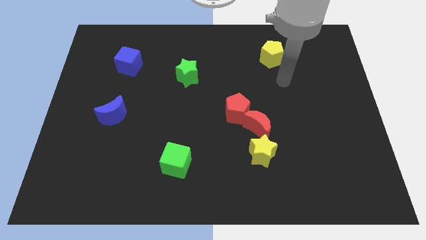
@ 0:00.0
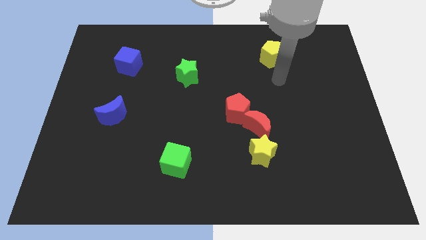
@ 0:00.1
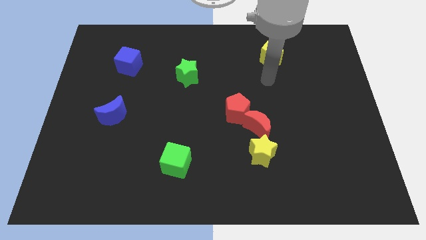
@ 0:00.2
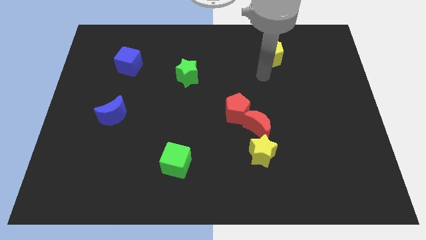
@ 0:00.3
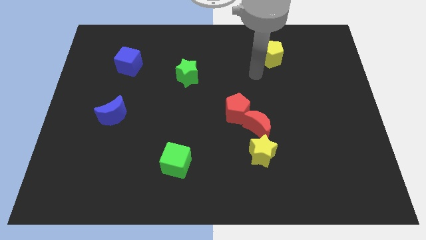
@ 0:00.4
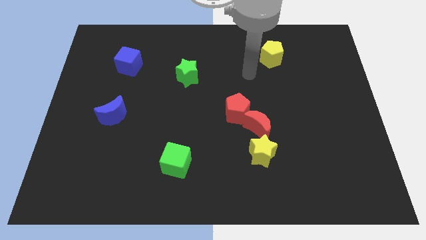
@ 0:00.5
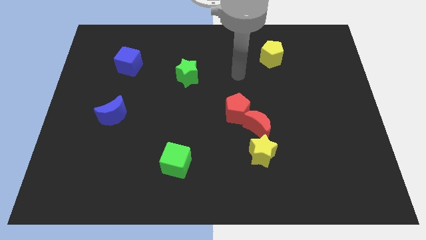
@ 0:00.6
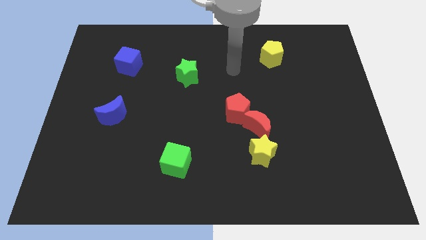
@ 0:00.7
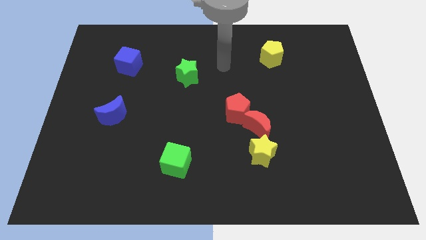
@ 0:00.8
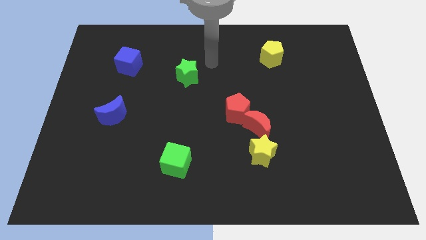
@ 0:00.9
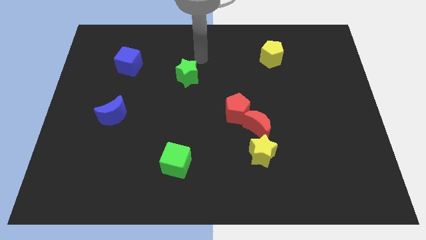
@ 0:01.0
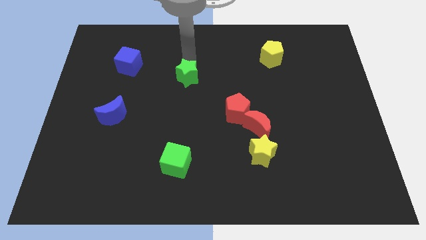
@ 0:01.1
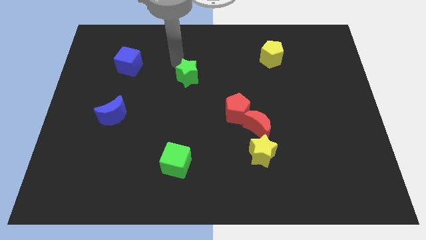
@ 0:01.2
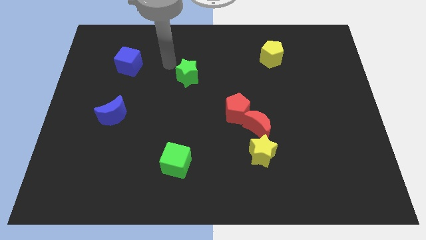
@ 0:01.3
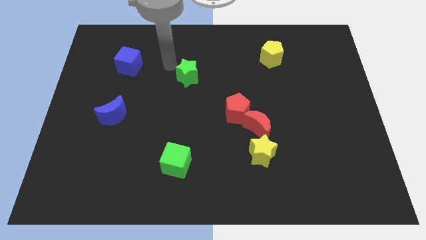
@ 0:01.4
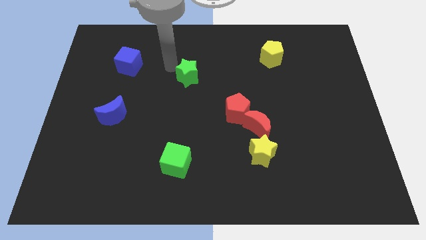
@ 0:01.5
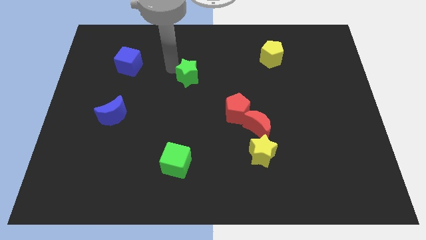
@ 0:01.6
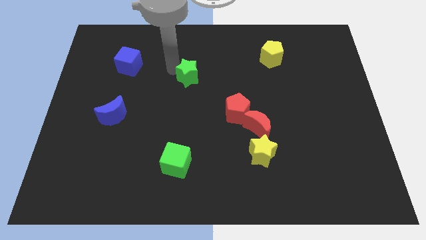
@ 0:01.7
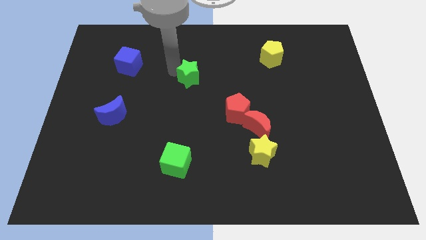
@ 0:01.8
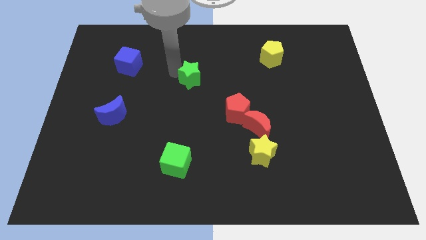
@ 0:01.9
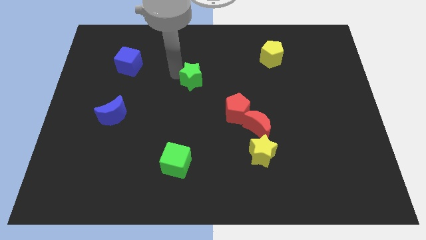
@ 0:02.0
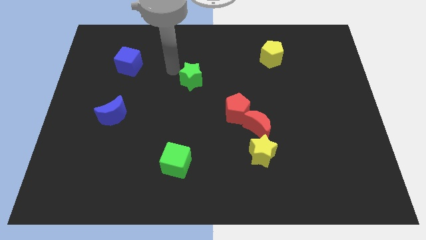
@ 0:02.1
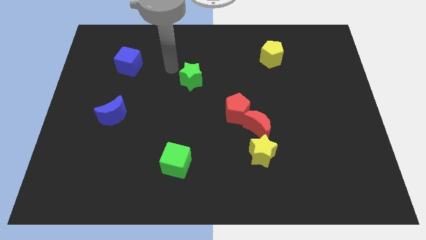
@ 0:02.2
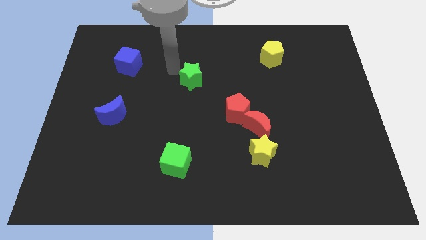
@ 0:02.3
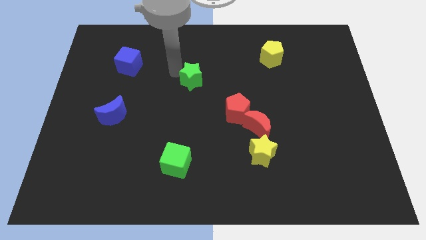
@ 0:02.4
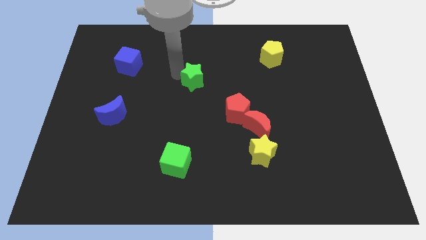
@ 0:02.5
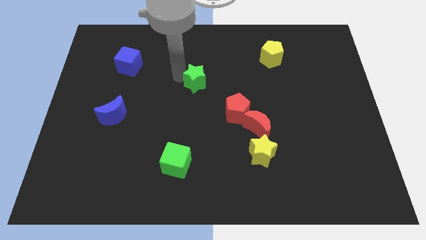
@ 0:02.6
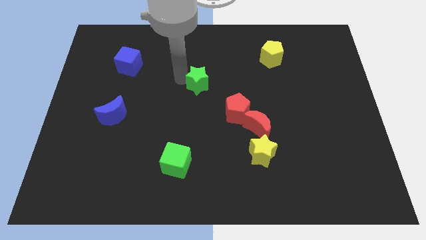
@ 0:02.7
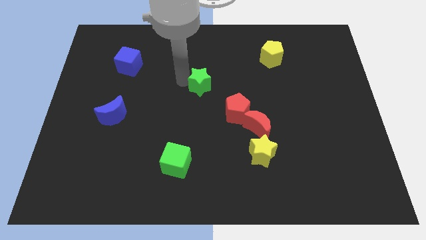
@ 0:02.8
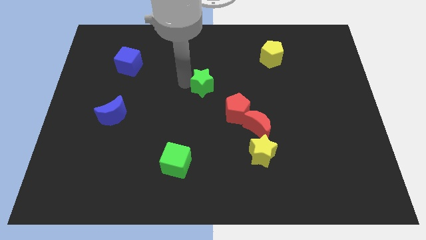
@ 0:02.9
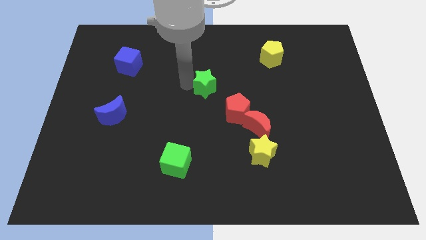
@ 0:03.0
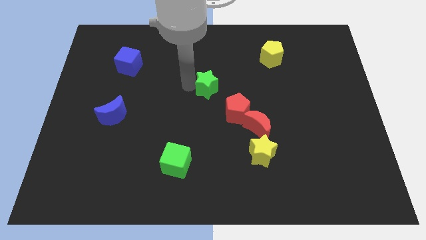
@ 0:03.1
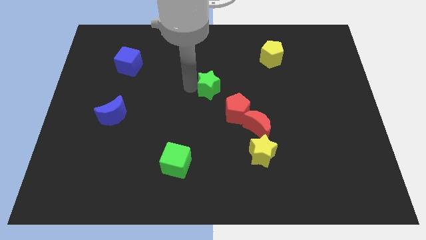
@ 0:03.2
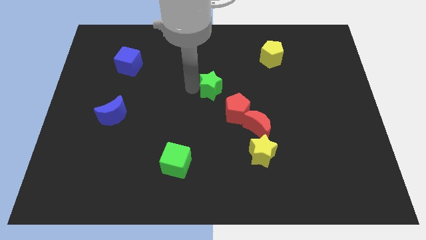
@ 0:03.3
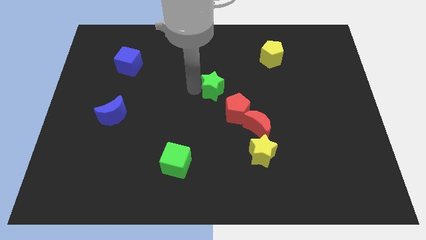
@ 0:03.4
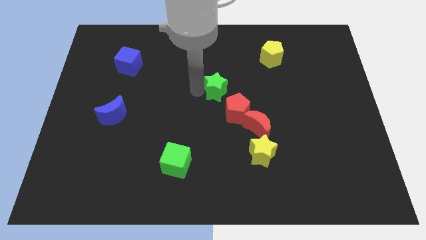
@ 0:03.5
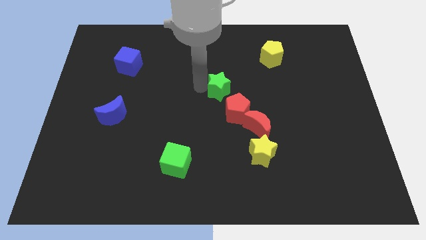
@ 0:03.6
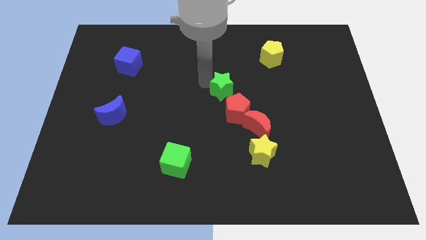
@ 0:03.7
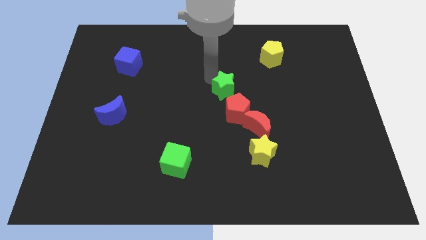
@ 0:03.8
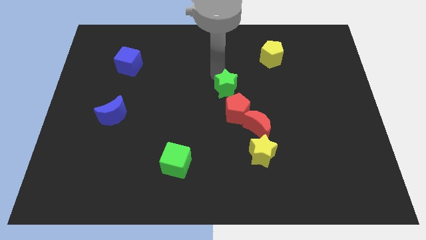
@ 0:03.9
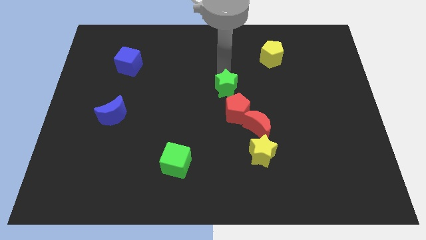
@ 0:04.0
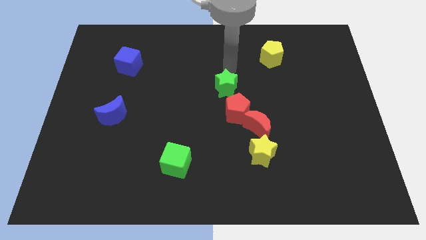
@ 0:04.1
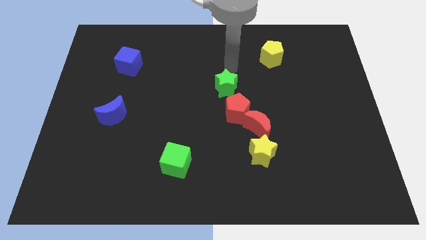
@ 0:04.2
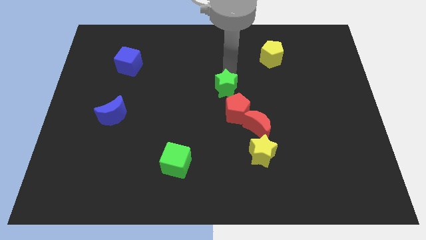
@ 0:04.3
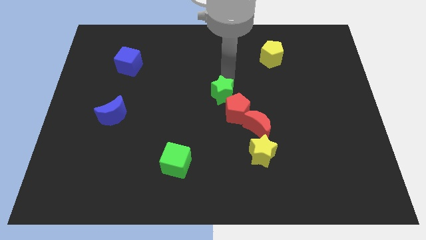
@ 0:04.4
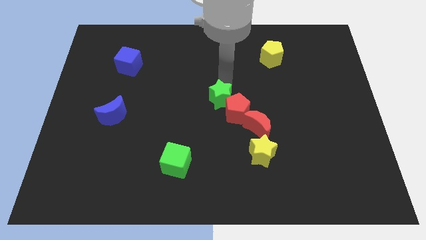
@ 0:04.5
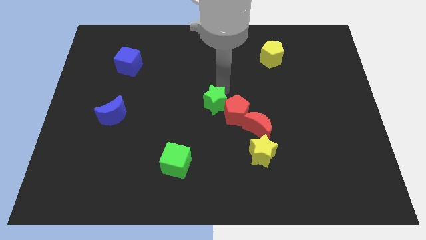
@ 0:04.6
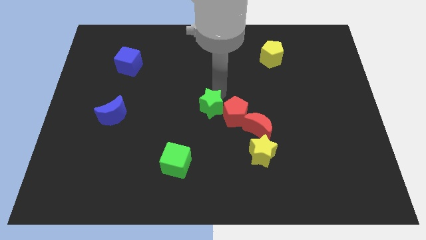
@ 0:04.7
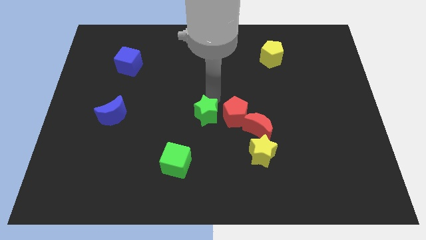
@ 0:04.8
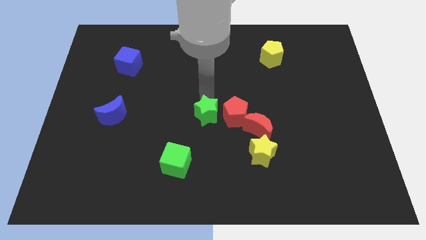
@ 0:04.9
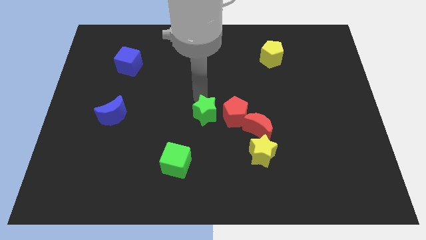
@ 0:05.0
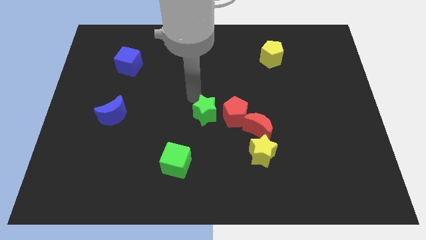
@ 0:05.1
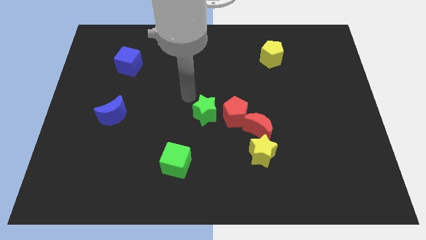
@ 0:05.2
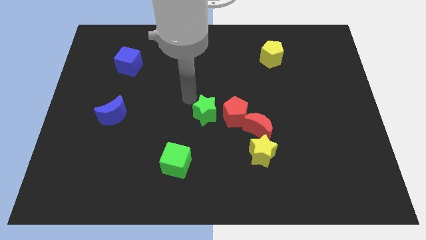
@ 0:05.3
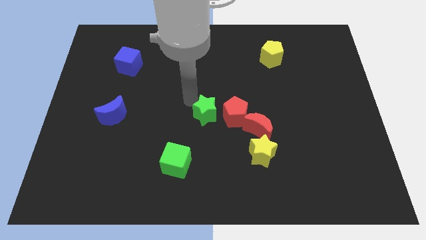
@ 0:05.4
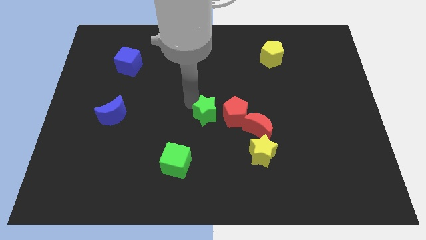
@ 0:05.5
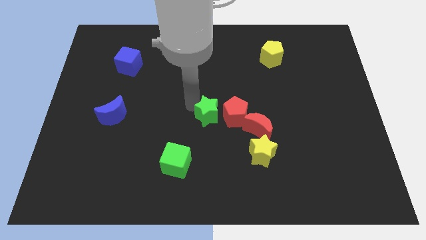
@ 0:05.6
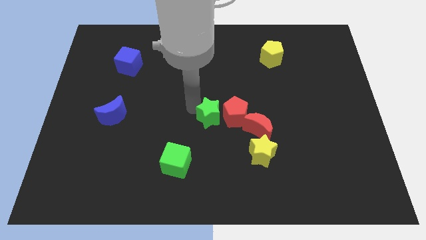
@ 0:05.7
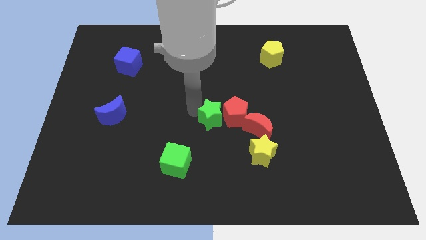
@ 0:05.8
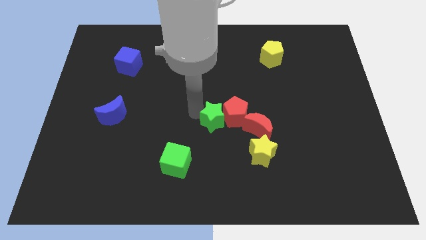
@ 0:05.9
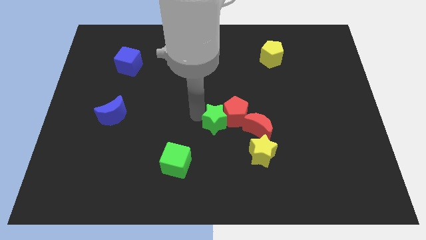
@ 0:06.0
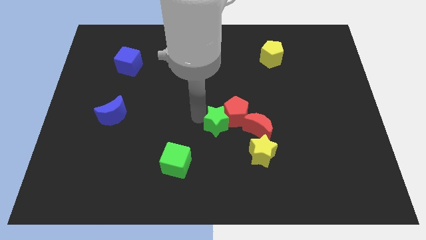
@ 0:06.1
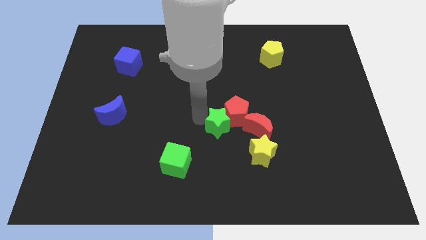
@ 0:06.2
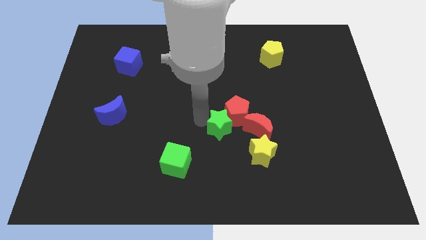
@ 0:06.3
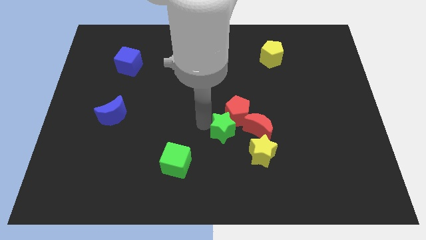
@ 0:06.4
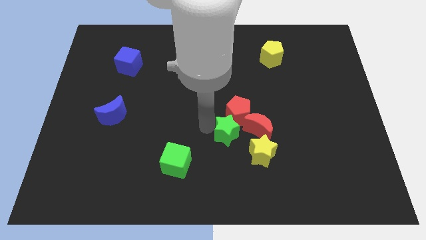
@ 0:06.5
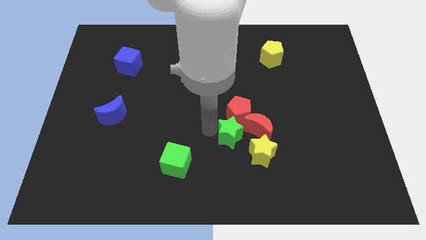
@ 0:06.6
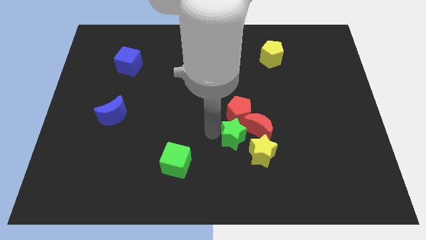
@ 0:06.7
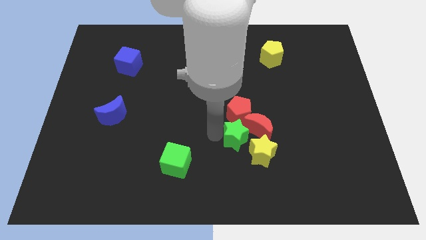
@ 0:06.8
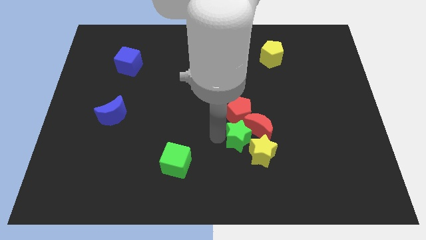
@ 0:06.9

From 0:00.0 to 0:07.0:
move the green star next to the yellow star
